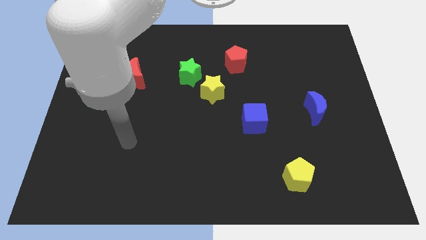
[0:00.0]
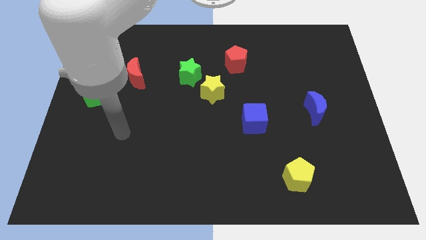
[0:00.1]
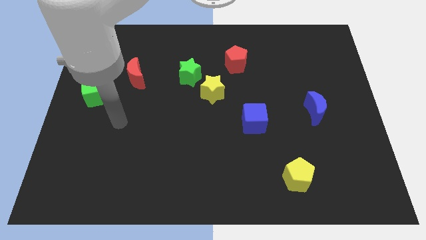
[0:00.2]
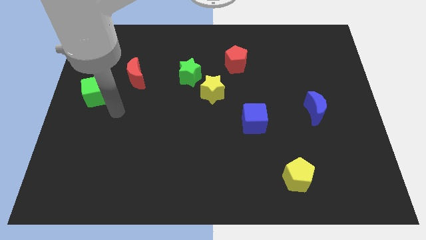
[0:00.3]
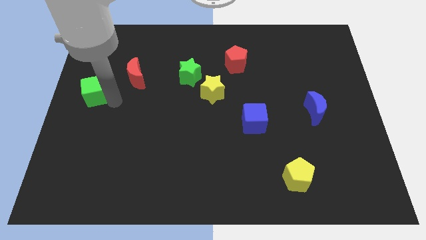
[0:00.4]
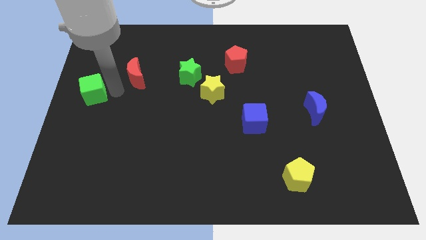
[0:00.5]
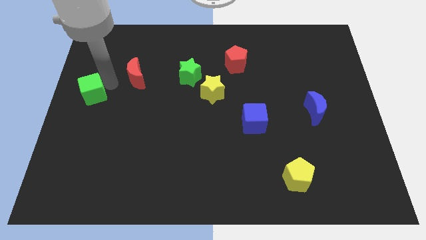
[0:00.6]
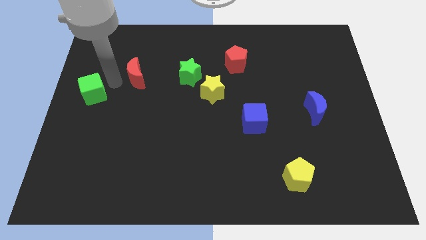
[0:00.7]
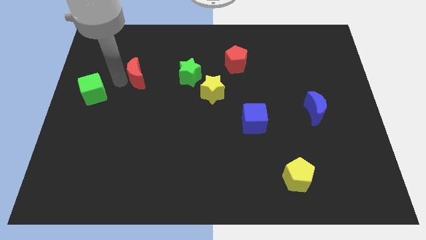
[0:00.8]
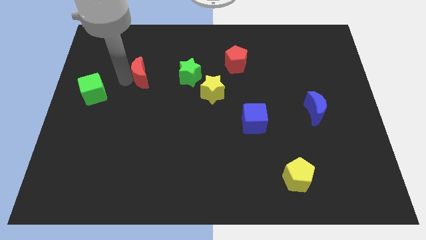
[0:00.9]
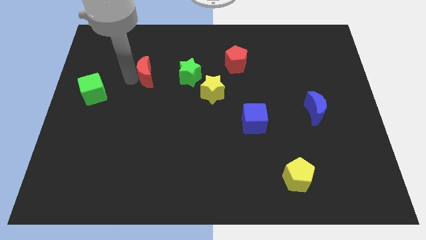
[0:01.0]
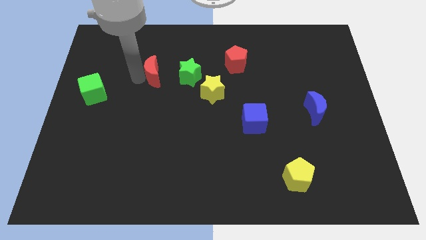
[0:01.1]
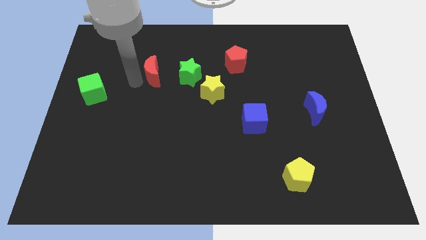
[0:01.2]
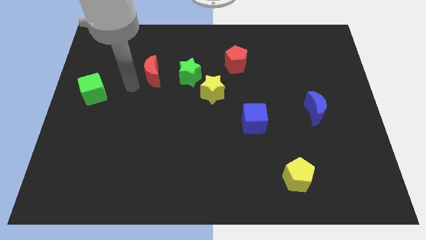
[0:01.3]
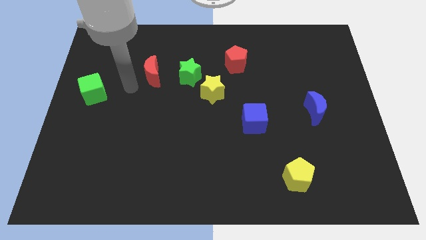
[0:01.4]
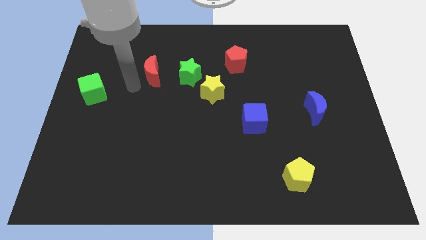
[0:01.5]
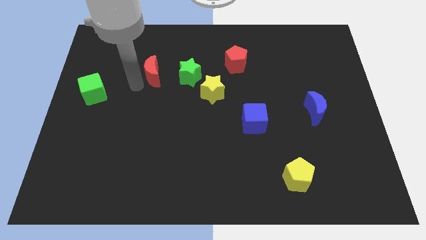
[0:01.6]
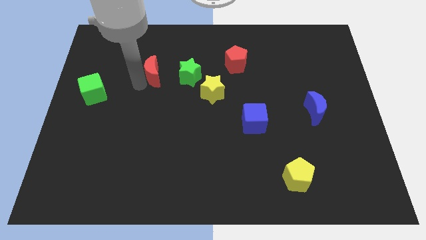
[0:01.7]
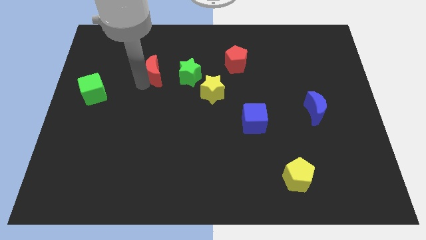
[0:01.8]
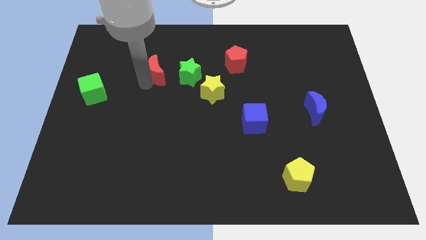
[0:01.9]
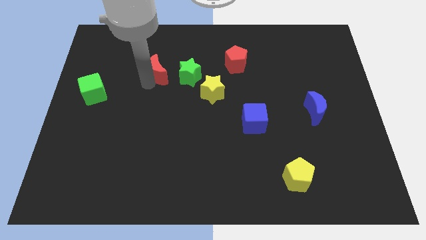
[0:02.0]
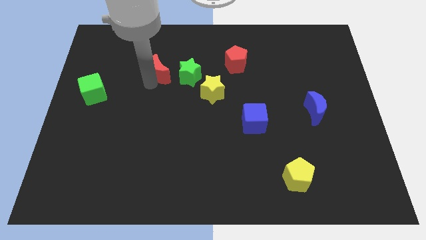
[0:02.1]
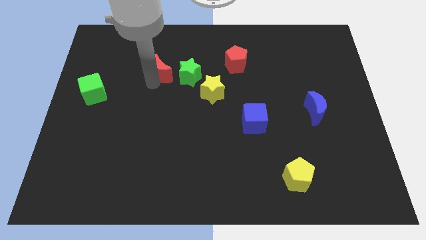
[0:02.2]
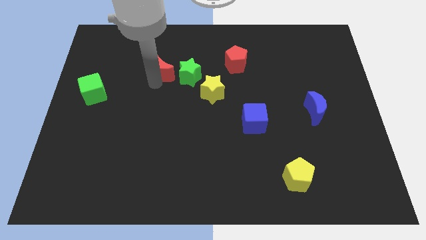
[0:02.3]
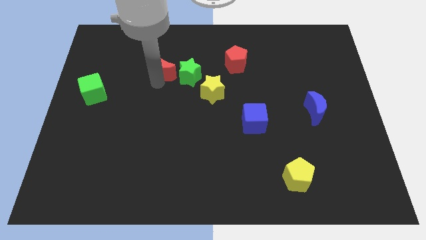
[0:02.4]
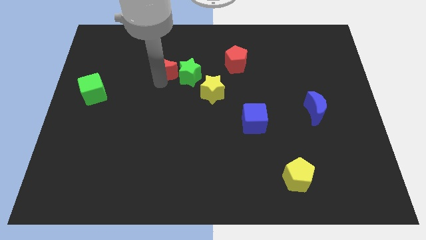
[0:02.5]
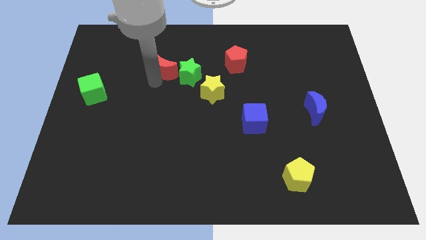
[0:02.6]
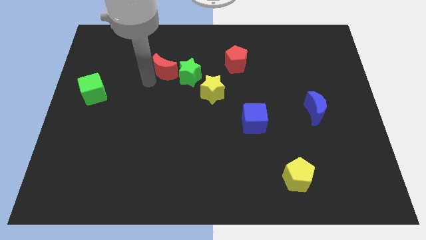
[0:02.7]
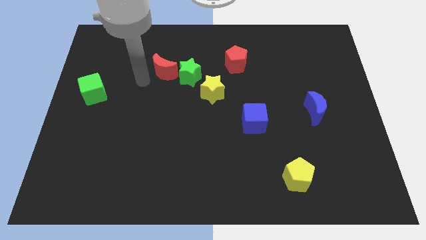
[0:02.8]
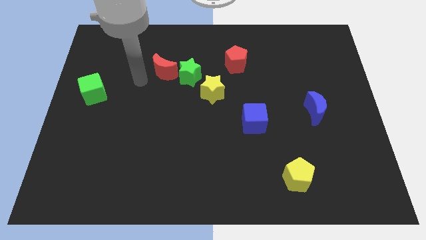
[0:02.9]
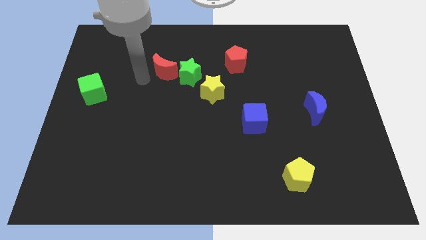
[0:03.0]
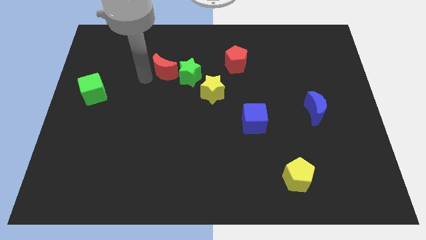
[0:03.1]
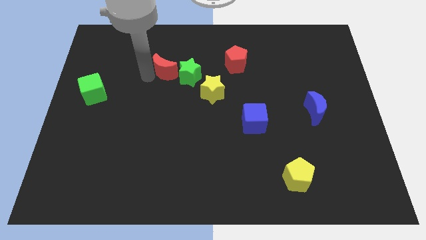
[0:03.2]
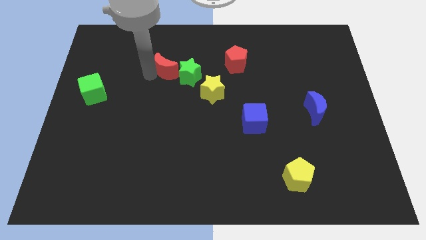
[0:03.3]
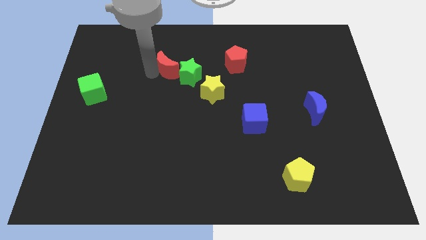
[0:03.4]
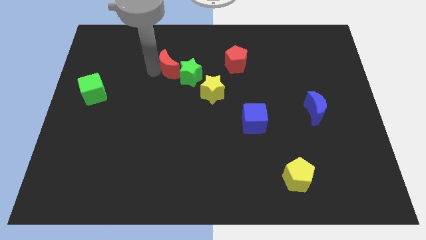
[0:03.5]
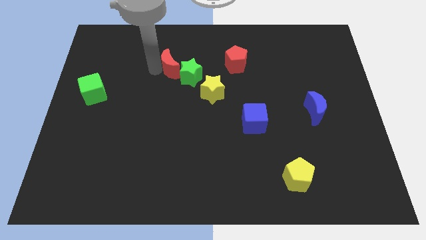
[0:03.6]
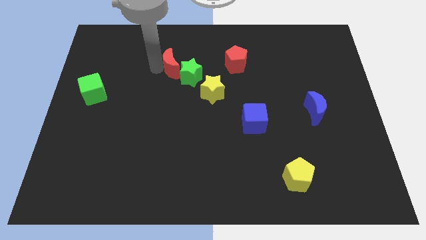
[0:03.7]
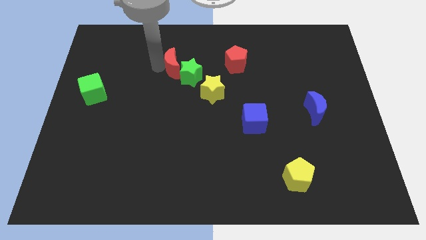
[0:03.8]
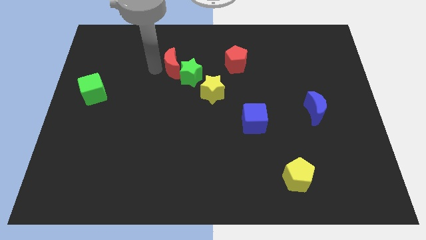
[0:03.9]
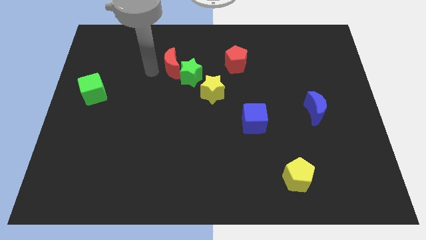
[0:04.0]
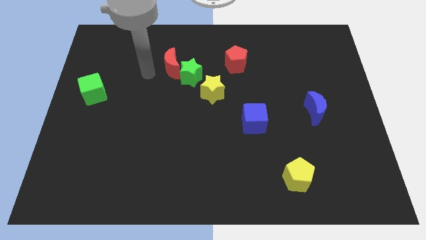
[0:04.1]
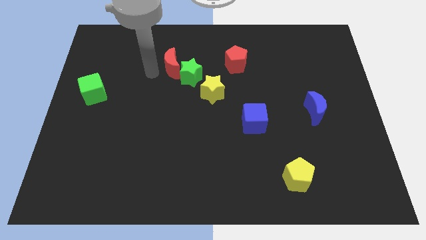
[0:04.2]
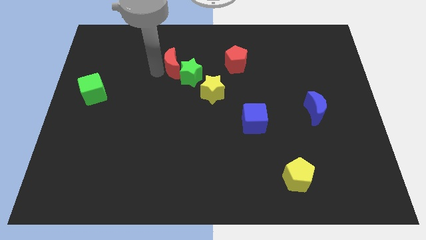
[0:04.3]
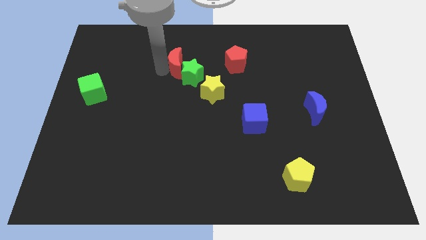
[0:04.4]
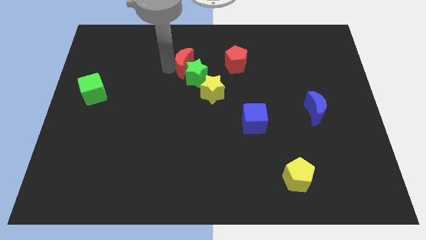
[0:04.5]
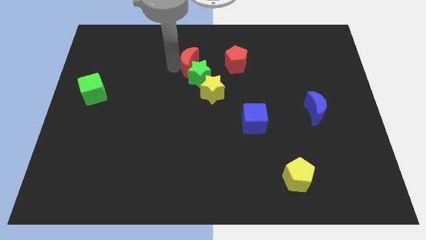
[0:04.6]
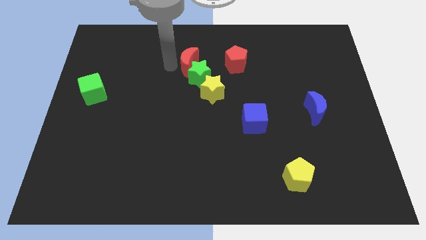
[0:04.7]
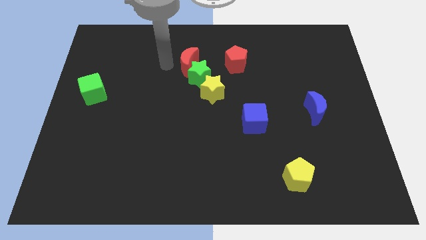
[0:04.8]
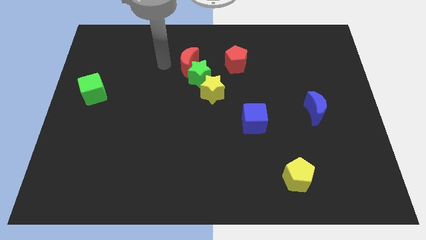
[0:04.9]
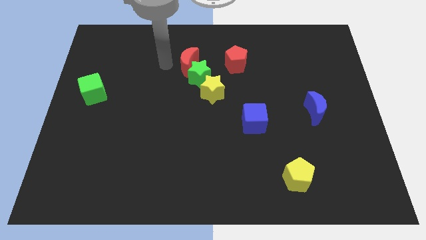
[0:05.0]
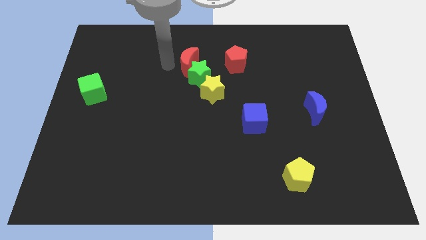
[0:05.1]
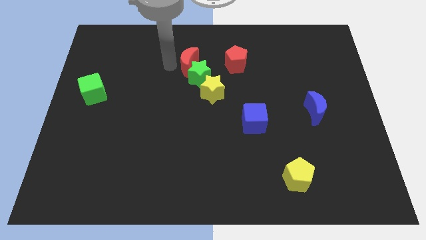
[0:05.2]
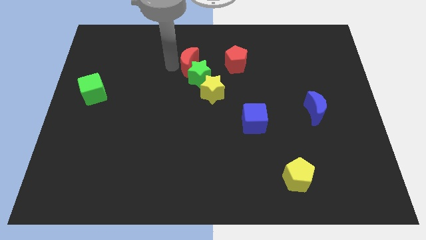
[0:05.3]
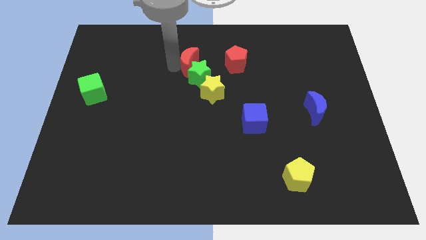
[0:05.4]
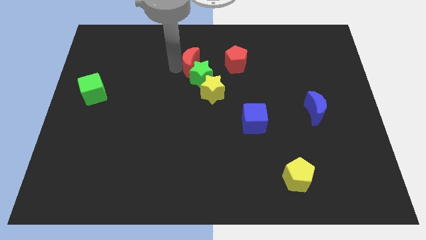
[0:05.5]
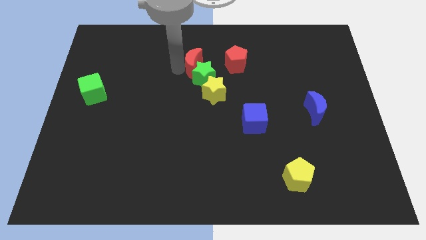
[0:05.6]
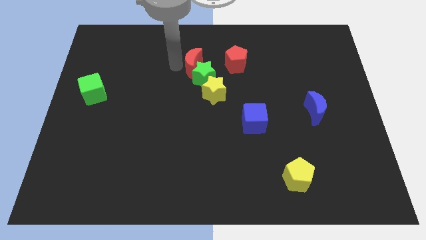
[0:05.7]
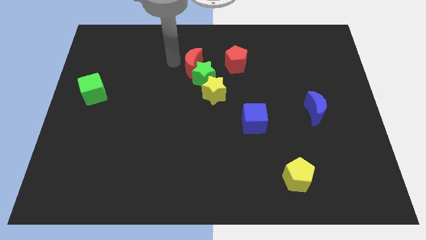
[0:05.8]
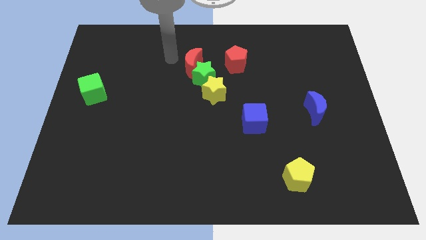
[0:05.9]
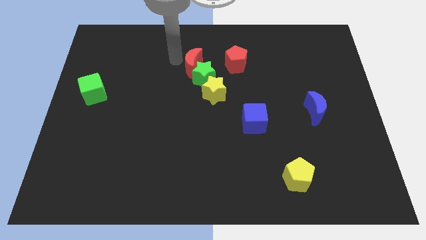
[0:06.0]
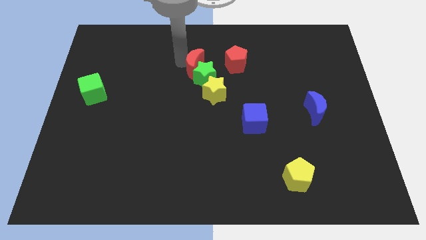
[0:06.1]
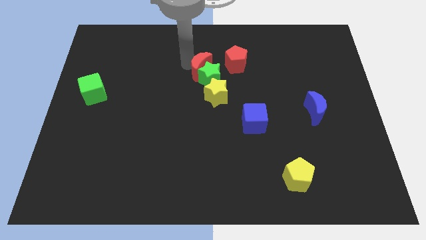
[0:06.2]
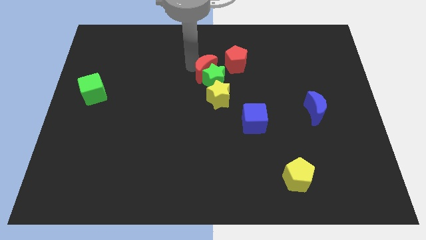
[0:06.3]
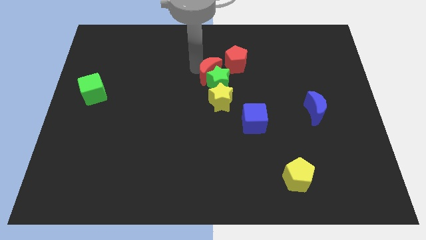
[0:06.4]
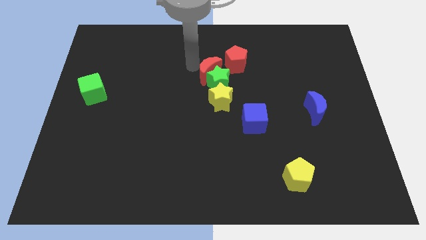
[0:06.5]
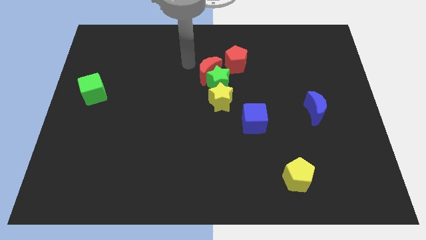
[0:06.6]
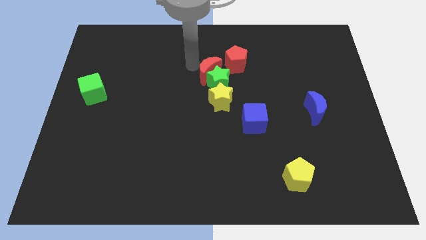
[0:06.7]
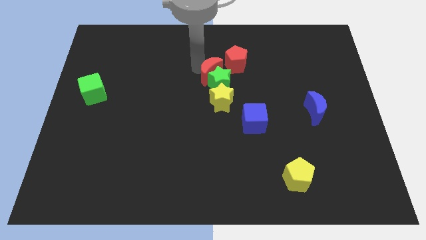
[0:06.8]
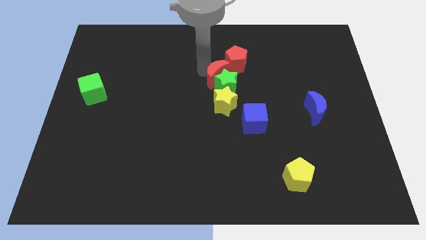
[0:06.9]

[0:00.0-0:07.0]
slide the red moon to the right

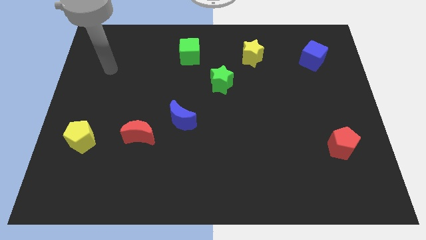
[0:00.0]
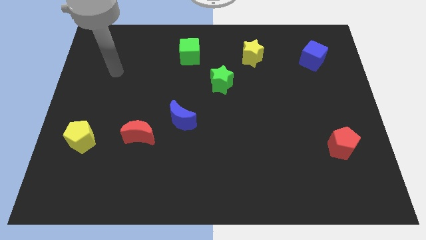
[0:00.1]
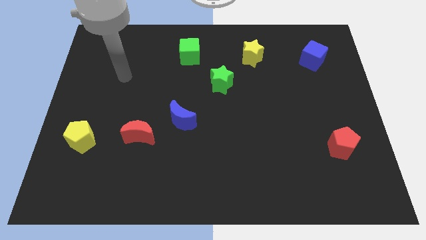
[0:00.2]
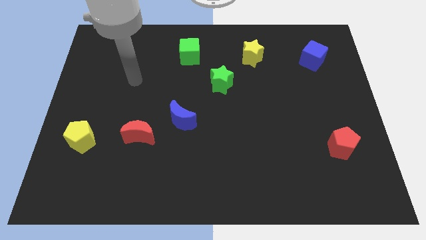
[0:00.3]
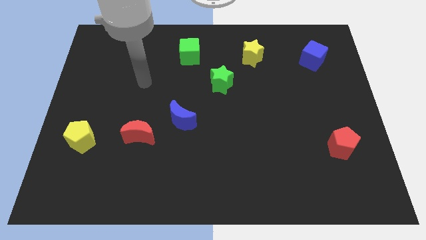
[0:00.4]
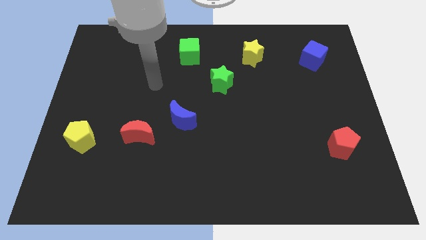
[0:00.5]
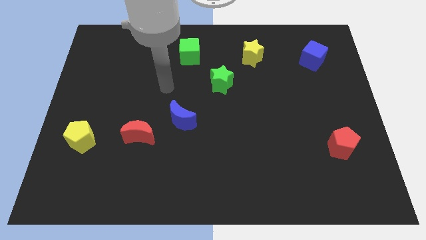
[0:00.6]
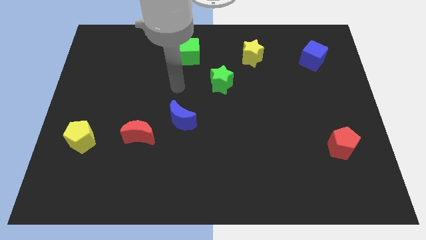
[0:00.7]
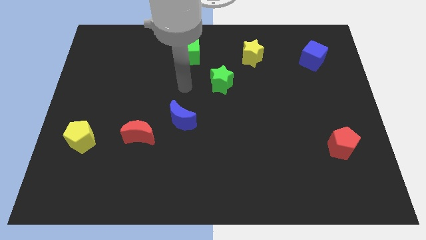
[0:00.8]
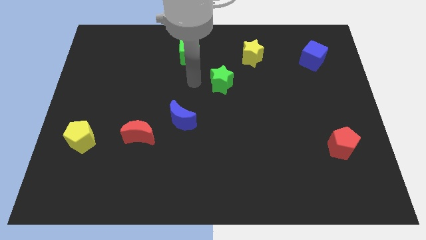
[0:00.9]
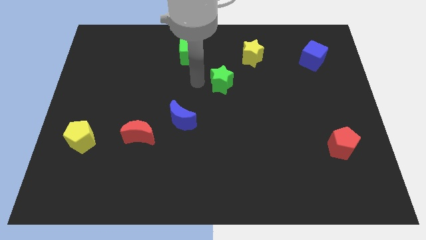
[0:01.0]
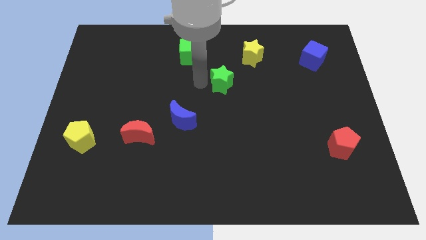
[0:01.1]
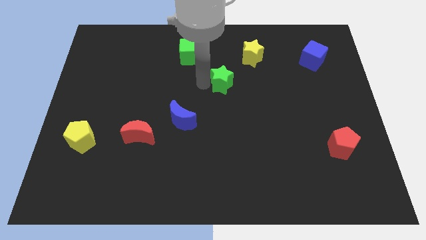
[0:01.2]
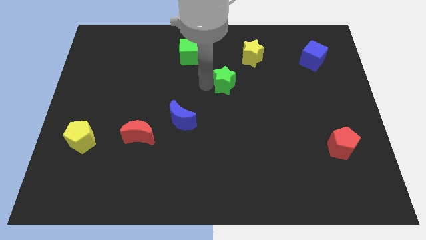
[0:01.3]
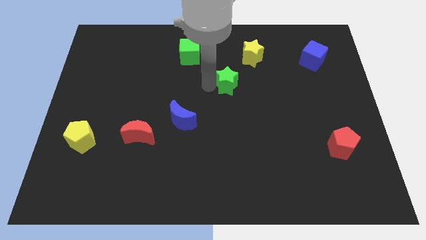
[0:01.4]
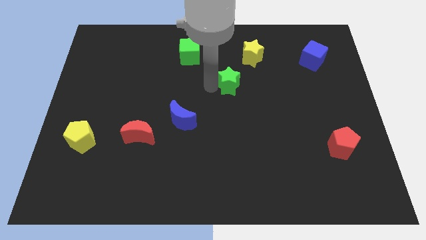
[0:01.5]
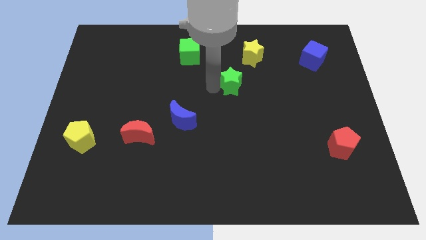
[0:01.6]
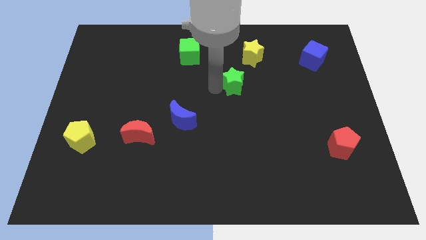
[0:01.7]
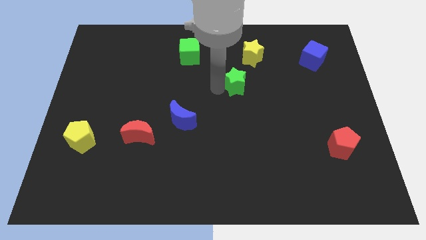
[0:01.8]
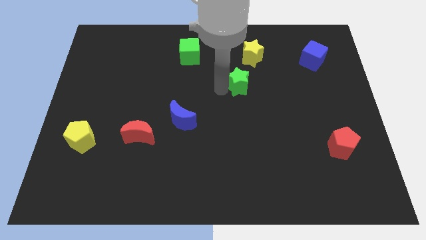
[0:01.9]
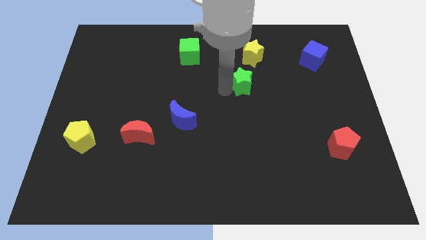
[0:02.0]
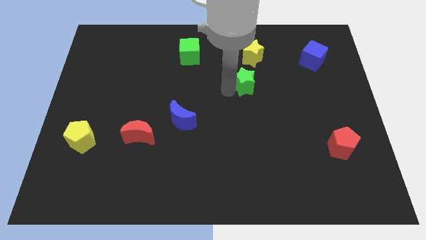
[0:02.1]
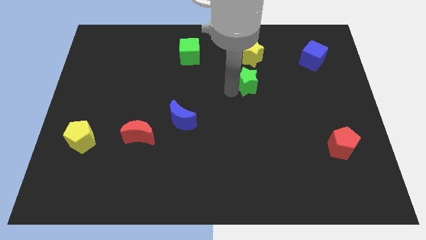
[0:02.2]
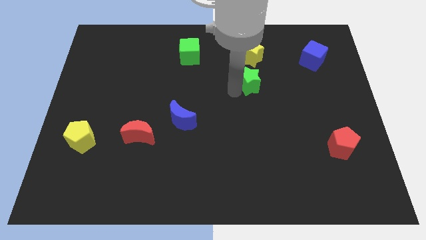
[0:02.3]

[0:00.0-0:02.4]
slightly move the green star right
